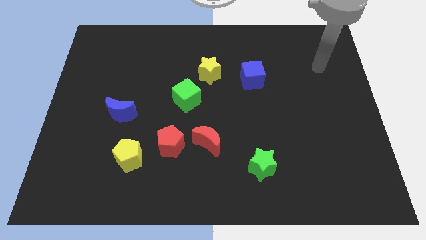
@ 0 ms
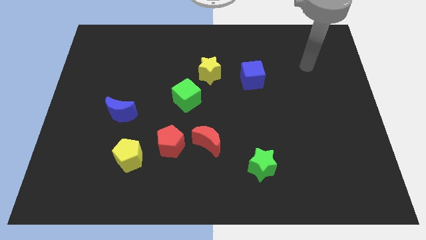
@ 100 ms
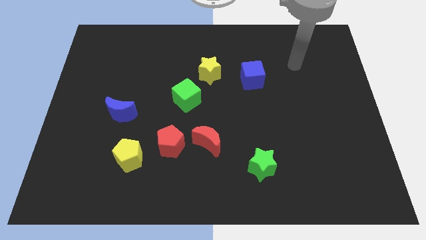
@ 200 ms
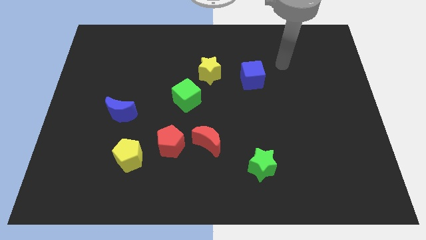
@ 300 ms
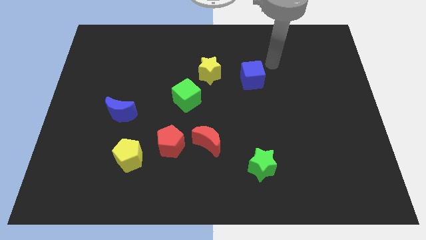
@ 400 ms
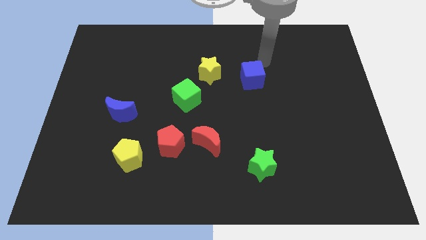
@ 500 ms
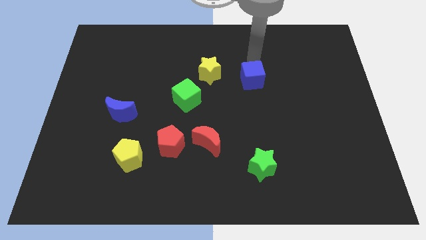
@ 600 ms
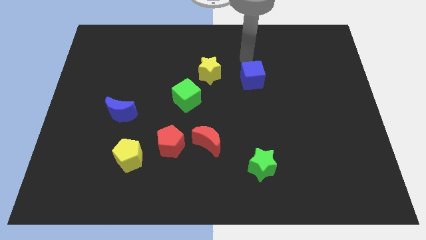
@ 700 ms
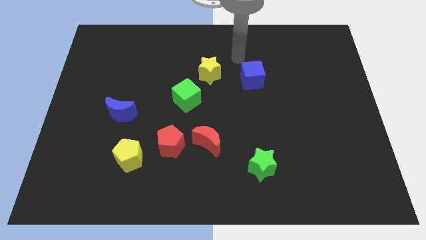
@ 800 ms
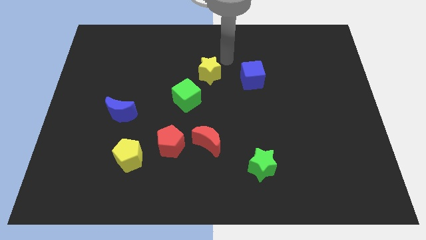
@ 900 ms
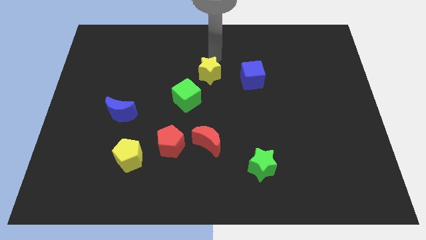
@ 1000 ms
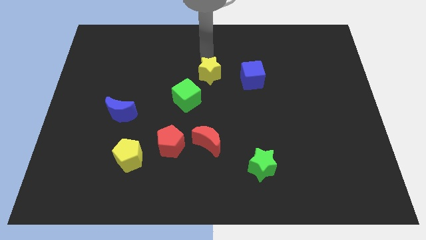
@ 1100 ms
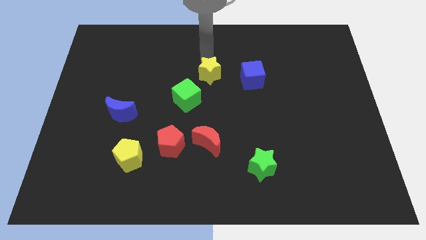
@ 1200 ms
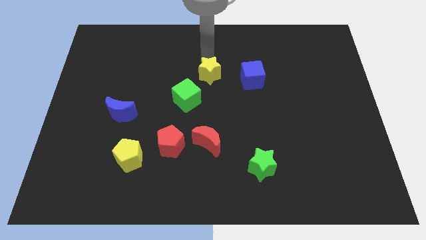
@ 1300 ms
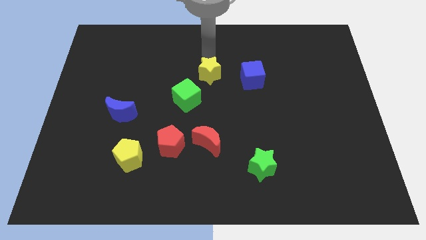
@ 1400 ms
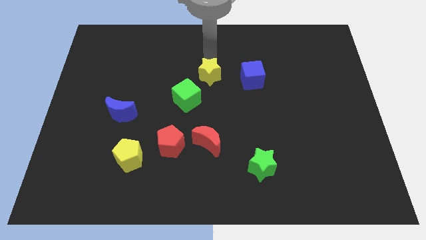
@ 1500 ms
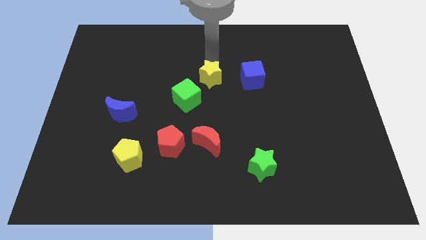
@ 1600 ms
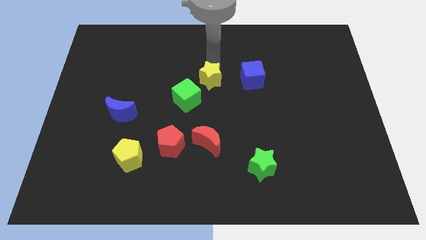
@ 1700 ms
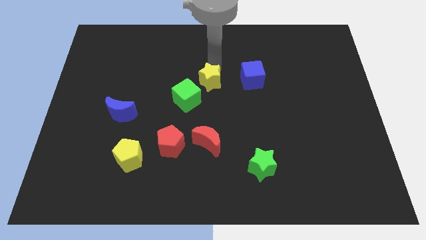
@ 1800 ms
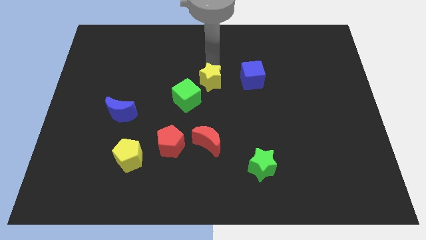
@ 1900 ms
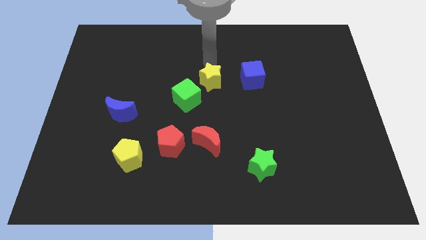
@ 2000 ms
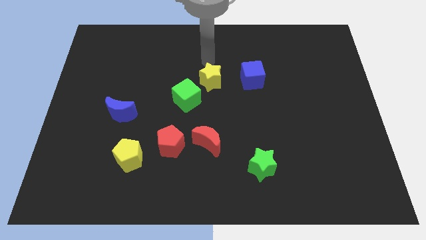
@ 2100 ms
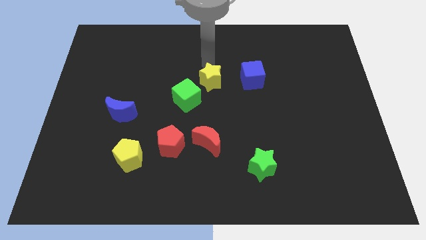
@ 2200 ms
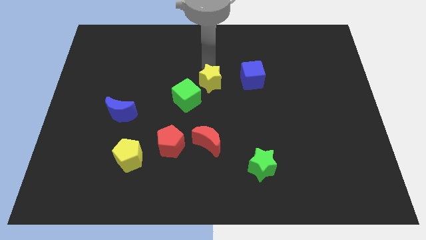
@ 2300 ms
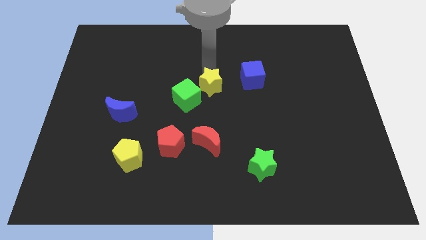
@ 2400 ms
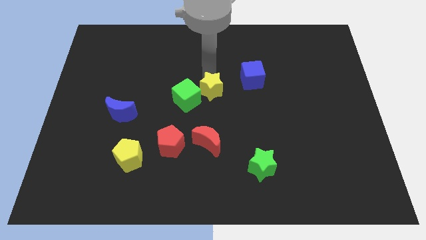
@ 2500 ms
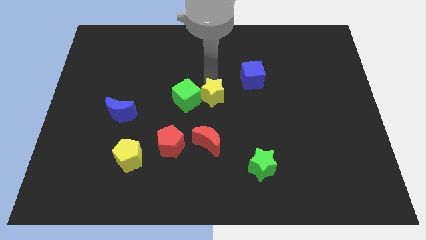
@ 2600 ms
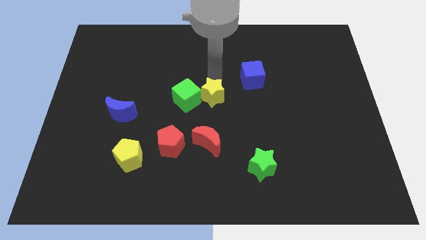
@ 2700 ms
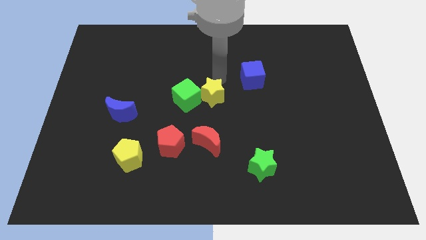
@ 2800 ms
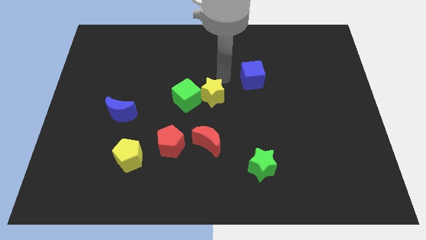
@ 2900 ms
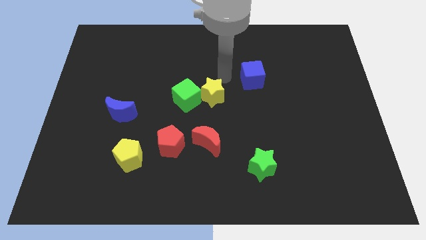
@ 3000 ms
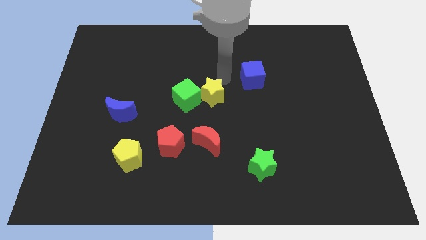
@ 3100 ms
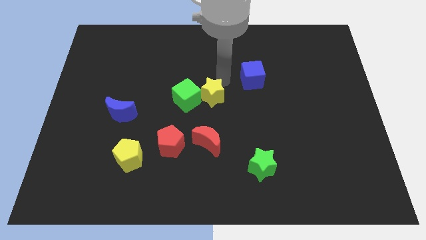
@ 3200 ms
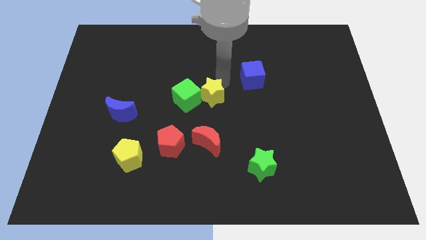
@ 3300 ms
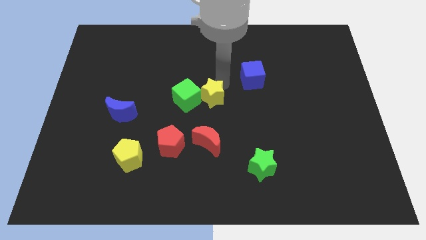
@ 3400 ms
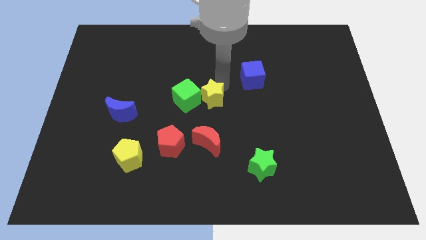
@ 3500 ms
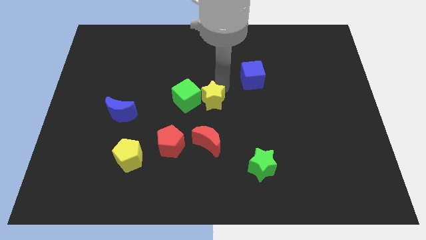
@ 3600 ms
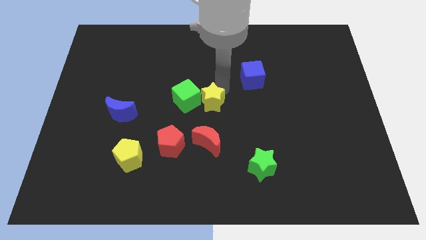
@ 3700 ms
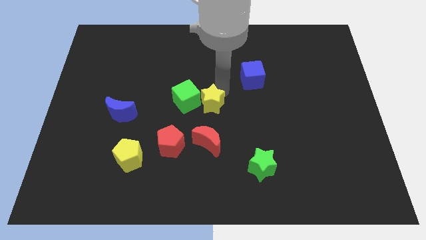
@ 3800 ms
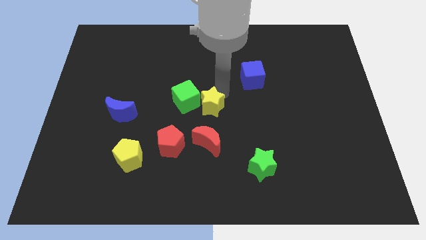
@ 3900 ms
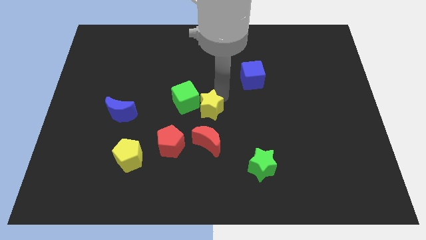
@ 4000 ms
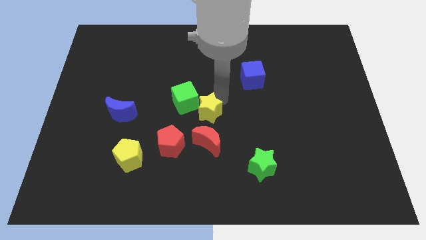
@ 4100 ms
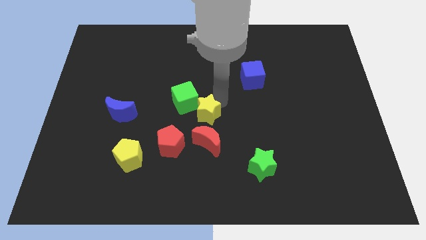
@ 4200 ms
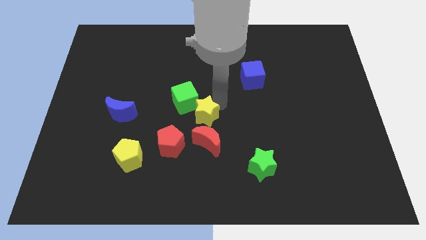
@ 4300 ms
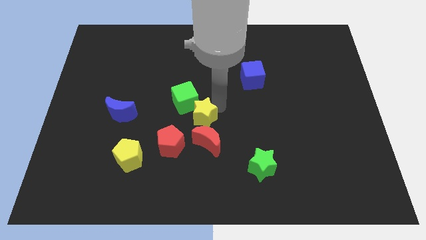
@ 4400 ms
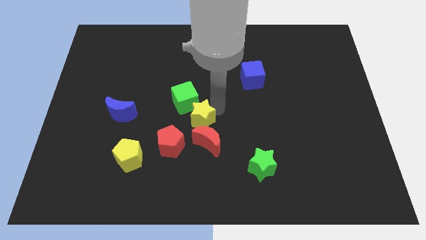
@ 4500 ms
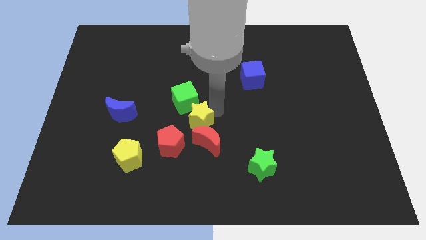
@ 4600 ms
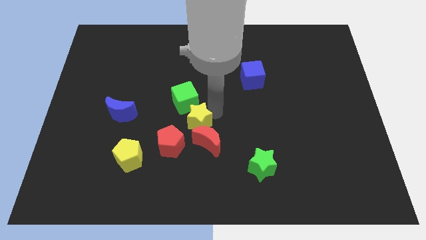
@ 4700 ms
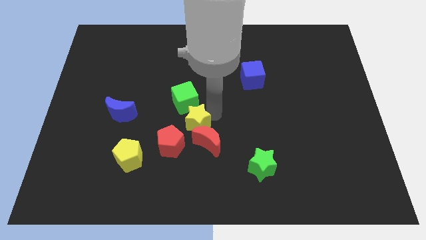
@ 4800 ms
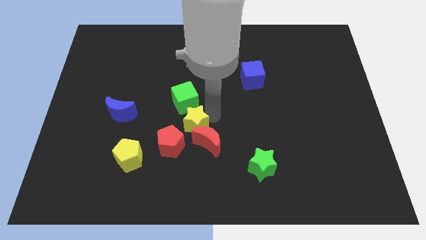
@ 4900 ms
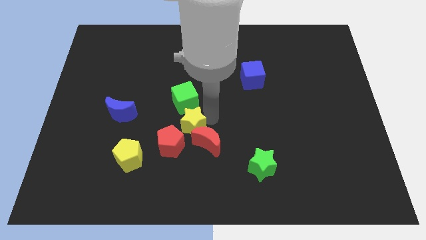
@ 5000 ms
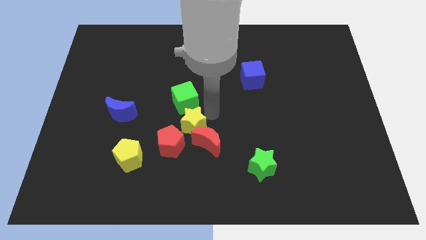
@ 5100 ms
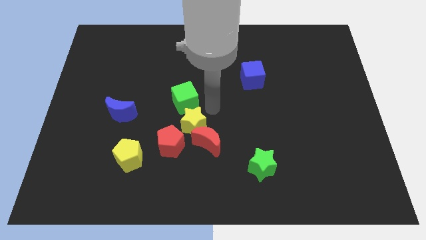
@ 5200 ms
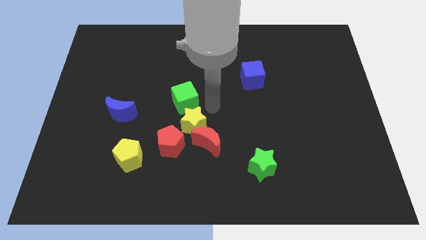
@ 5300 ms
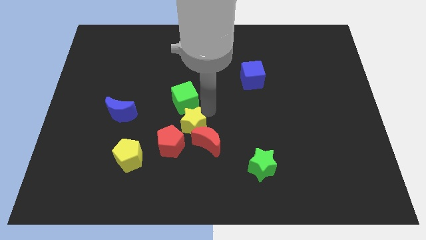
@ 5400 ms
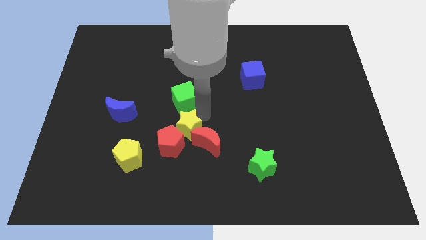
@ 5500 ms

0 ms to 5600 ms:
slide the yellow star next to the red pentagon

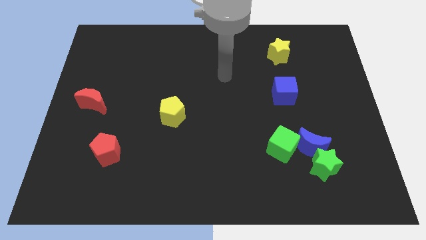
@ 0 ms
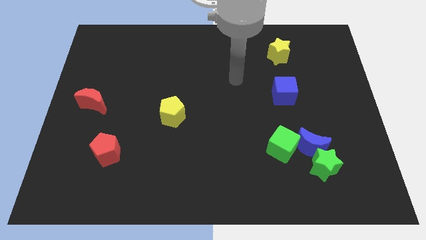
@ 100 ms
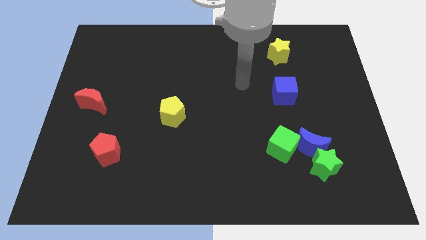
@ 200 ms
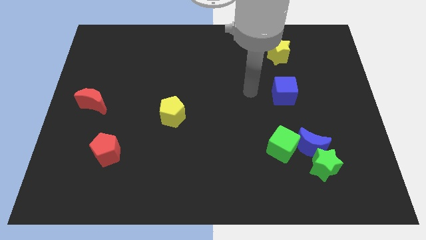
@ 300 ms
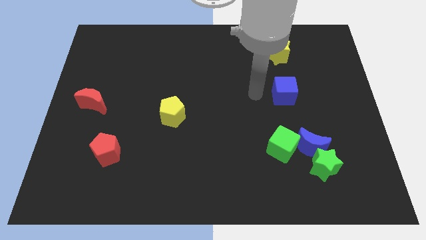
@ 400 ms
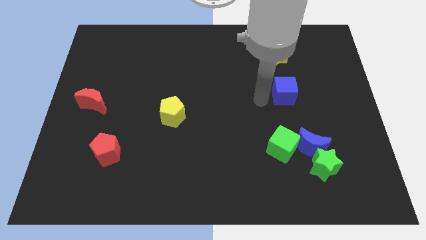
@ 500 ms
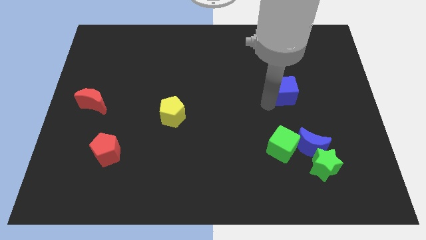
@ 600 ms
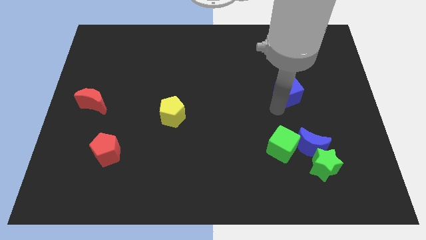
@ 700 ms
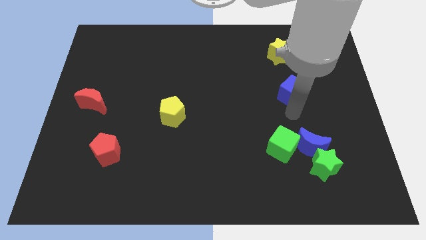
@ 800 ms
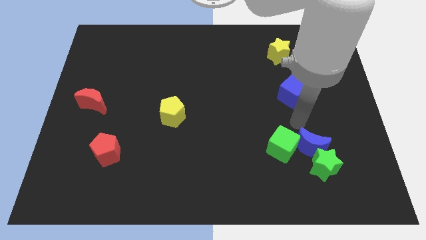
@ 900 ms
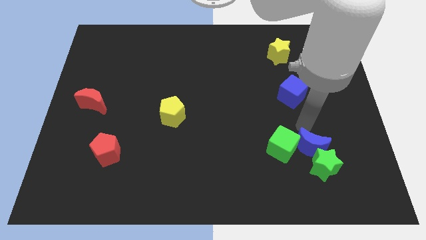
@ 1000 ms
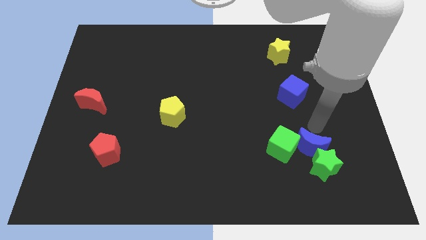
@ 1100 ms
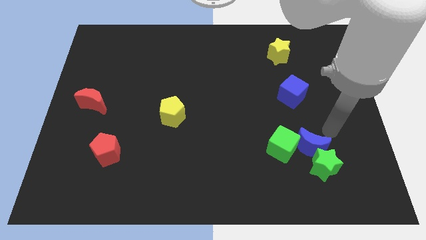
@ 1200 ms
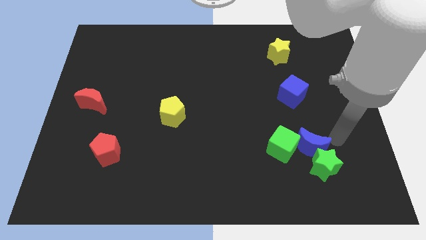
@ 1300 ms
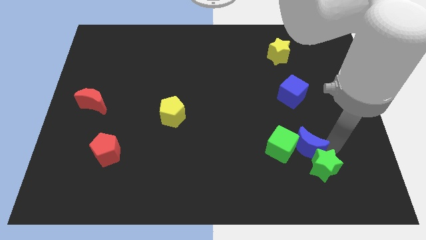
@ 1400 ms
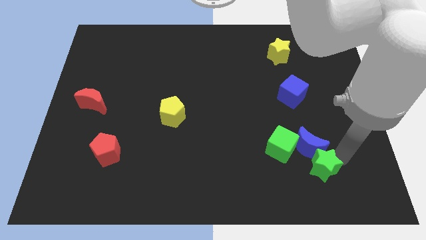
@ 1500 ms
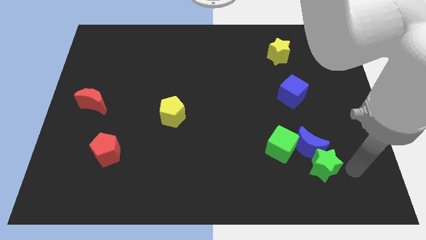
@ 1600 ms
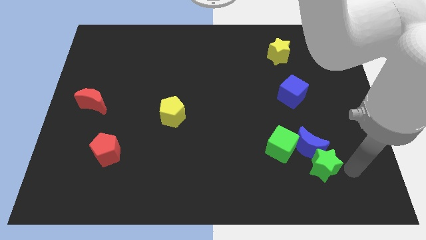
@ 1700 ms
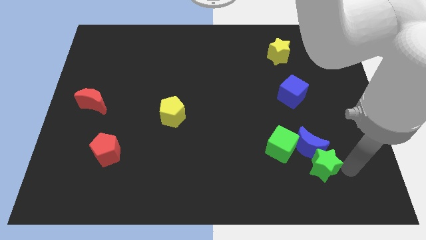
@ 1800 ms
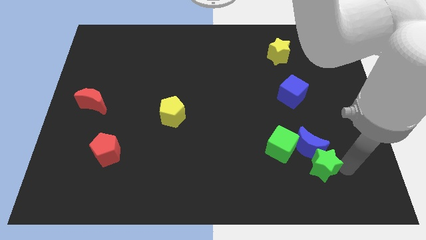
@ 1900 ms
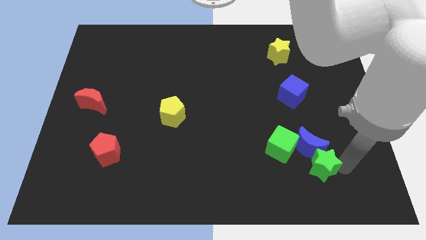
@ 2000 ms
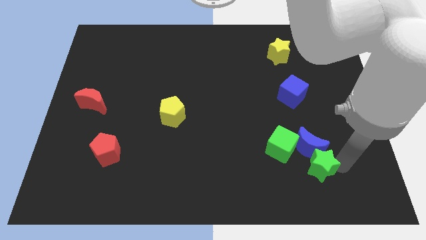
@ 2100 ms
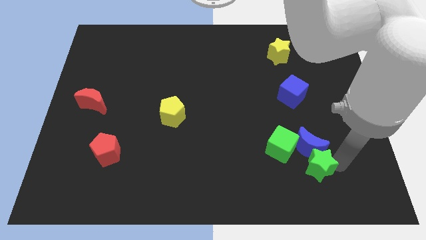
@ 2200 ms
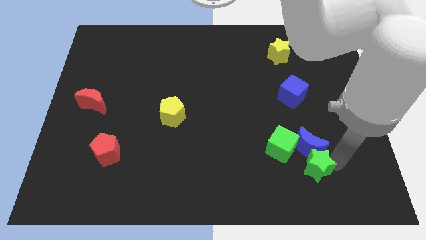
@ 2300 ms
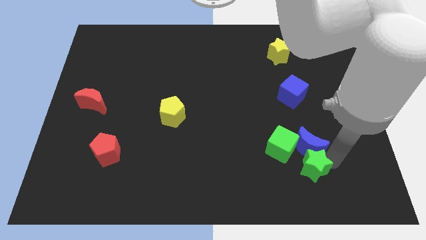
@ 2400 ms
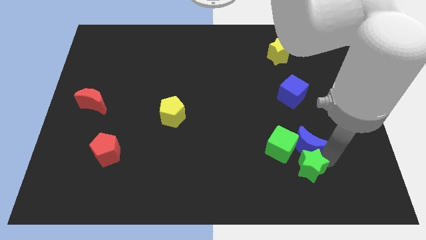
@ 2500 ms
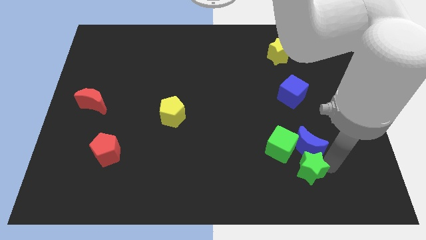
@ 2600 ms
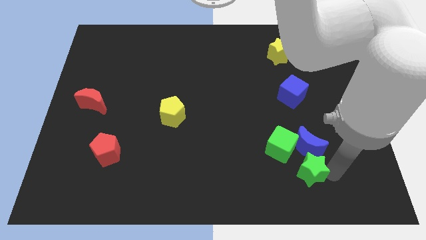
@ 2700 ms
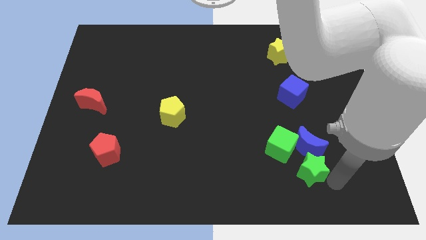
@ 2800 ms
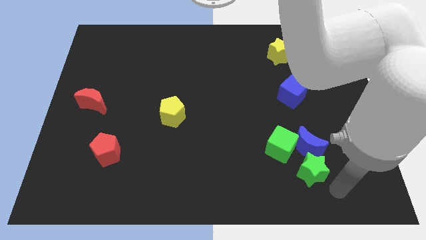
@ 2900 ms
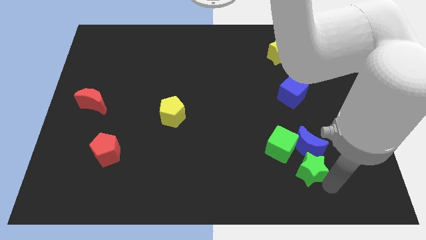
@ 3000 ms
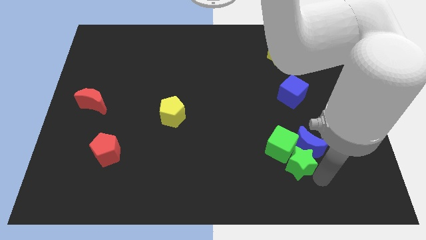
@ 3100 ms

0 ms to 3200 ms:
slide the green star close to the green cube
